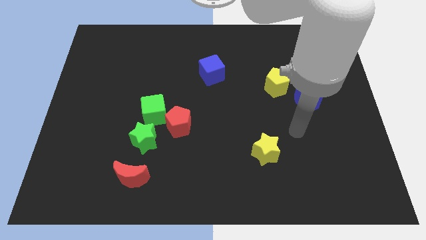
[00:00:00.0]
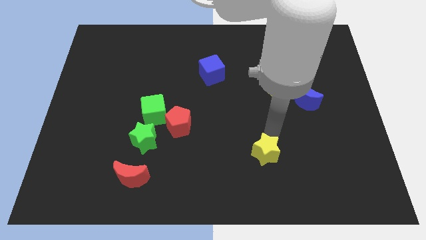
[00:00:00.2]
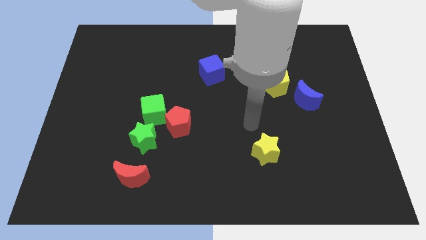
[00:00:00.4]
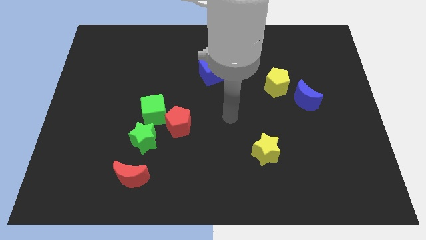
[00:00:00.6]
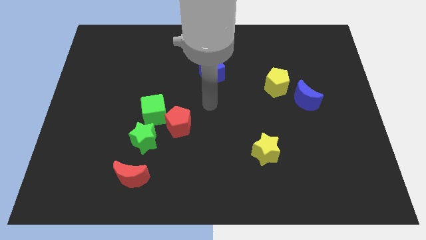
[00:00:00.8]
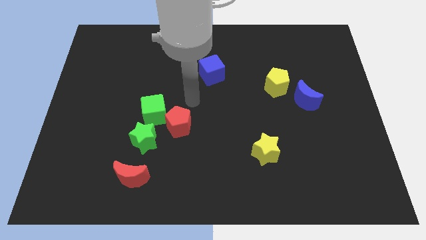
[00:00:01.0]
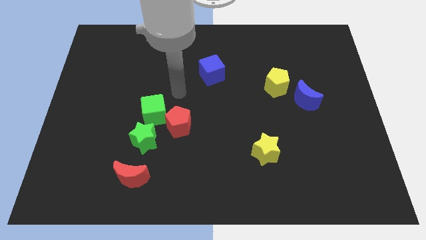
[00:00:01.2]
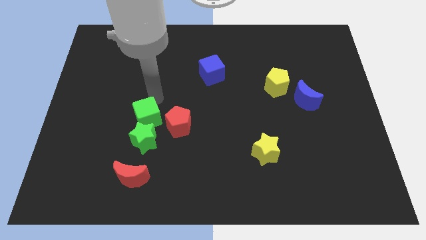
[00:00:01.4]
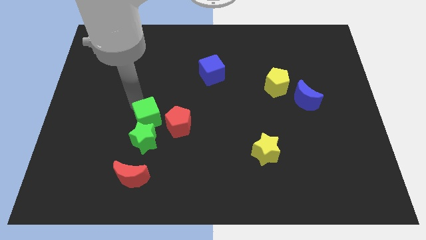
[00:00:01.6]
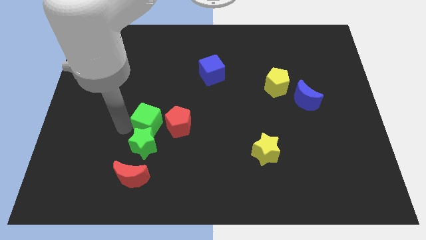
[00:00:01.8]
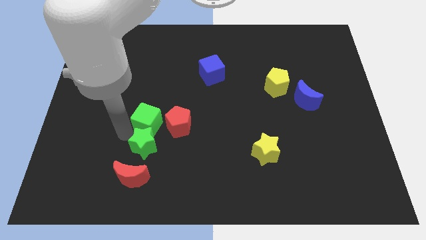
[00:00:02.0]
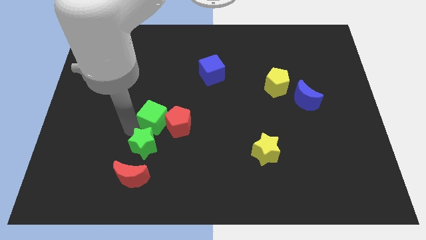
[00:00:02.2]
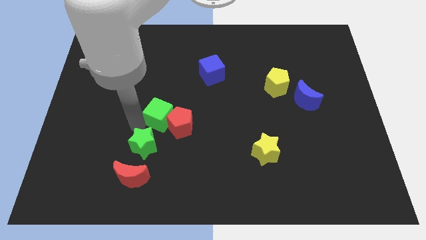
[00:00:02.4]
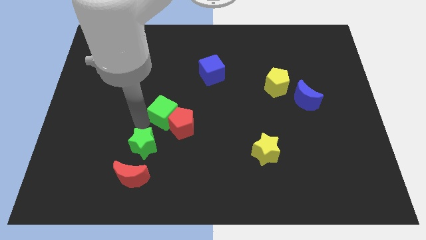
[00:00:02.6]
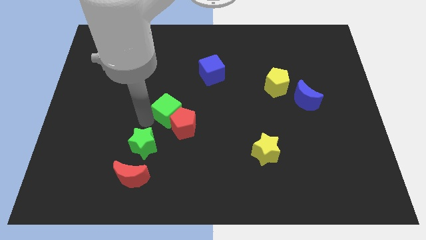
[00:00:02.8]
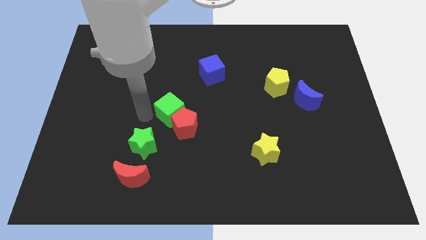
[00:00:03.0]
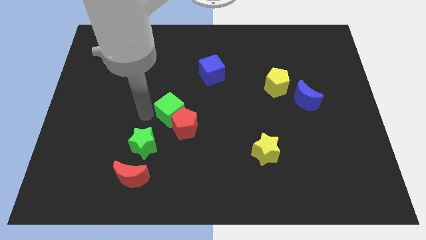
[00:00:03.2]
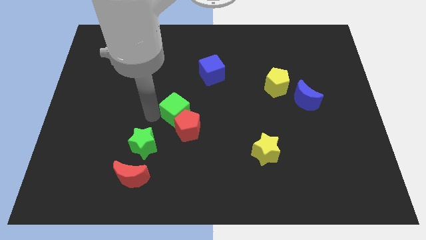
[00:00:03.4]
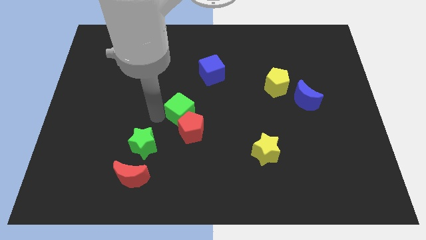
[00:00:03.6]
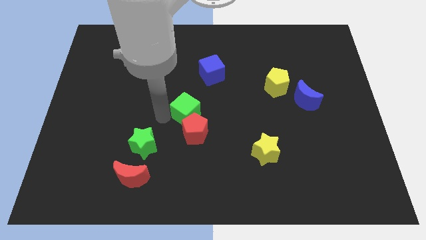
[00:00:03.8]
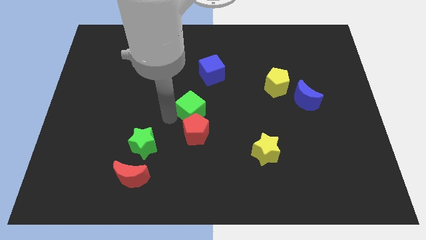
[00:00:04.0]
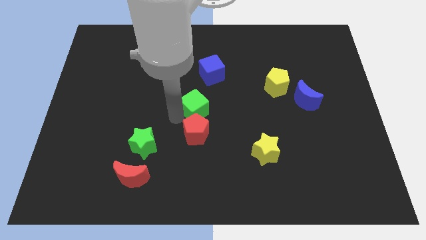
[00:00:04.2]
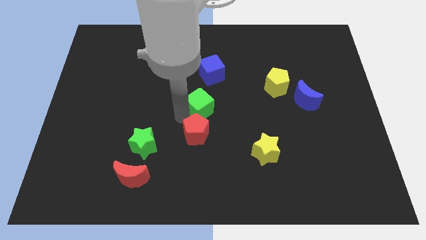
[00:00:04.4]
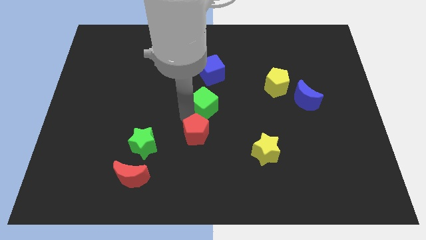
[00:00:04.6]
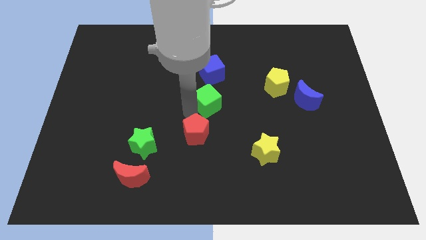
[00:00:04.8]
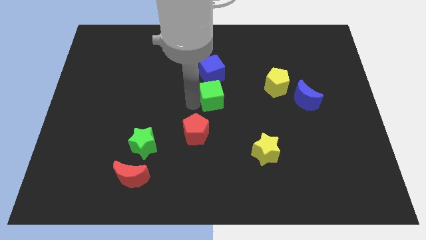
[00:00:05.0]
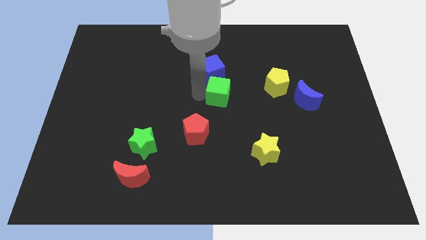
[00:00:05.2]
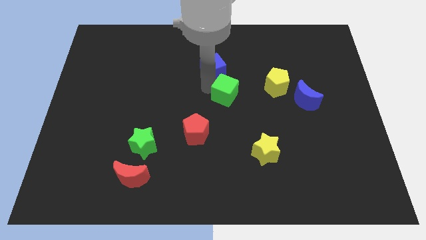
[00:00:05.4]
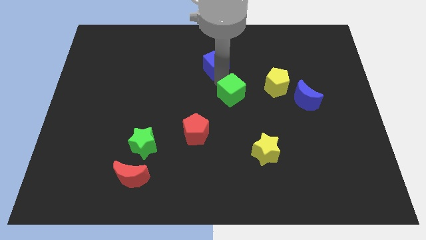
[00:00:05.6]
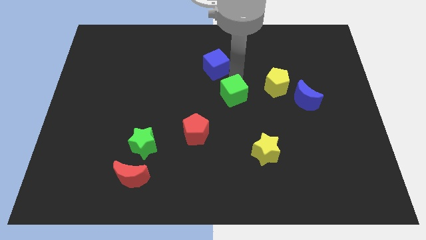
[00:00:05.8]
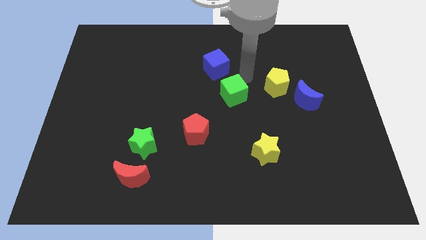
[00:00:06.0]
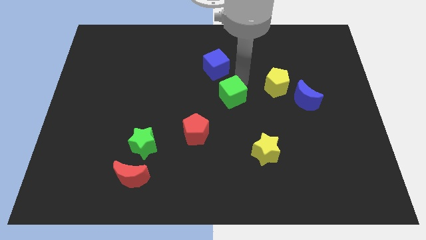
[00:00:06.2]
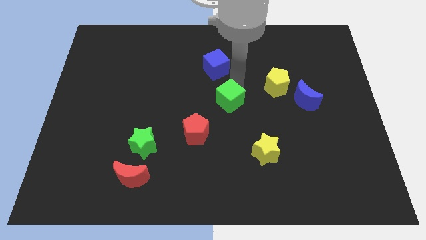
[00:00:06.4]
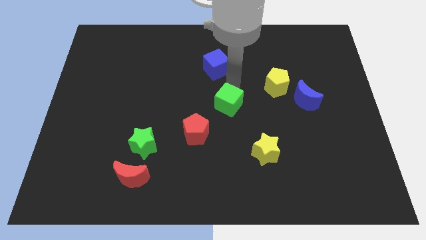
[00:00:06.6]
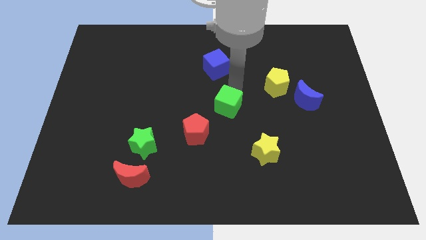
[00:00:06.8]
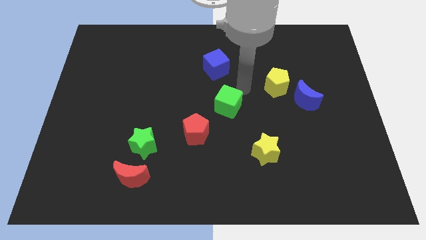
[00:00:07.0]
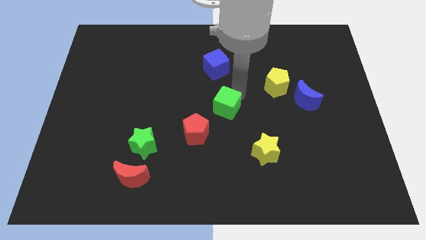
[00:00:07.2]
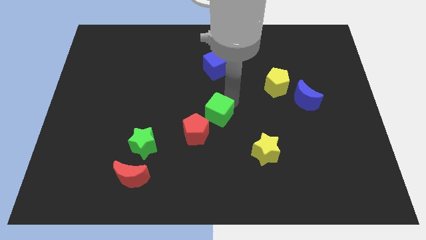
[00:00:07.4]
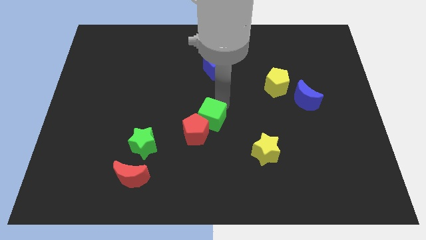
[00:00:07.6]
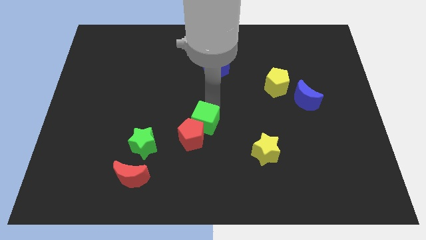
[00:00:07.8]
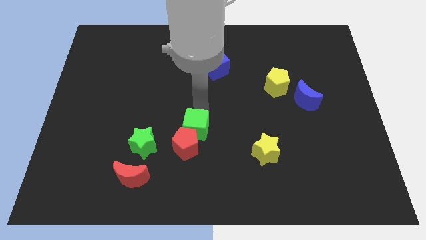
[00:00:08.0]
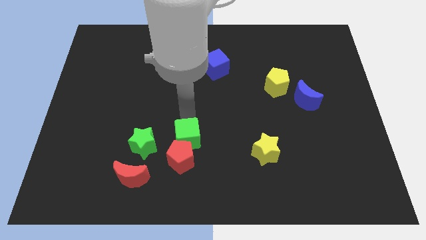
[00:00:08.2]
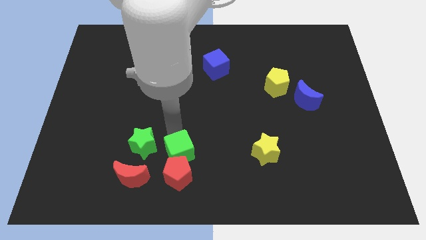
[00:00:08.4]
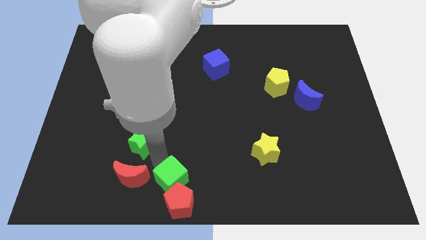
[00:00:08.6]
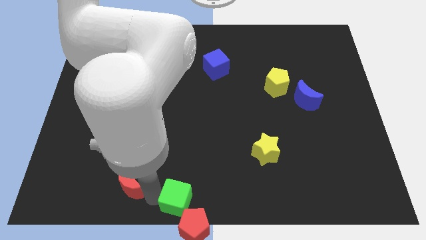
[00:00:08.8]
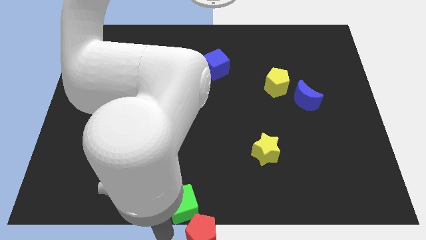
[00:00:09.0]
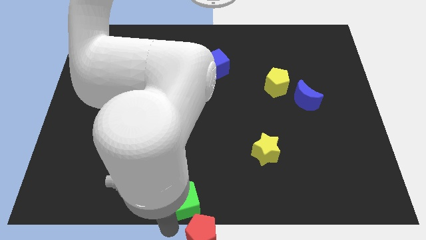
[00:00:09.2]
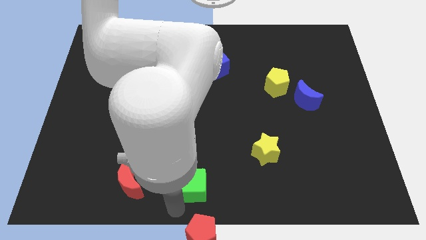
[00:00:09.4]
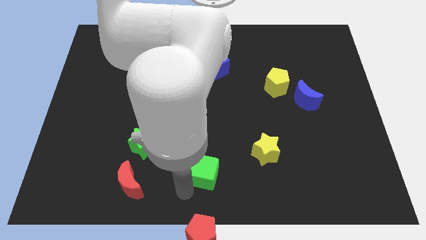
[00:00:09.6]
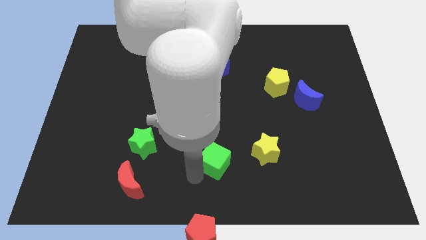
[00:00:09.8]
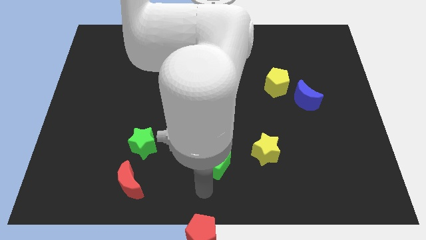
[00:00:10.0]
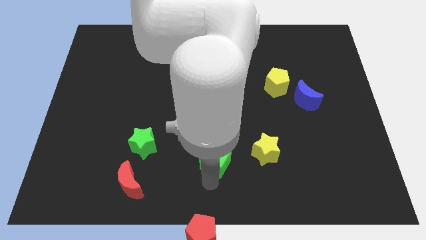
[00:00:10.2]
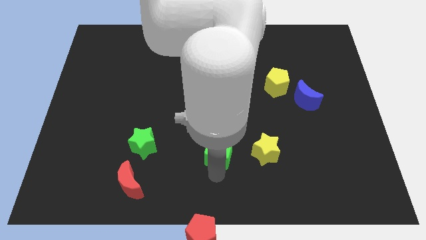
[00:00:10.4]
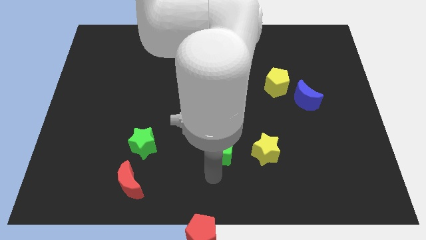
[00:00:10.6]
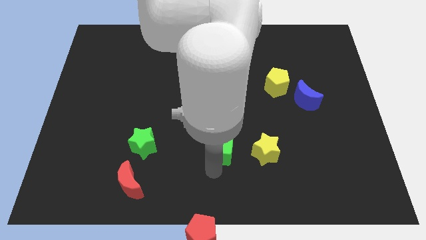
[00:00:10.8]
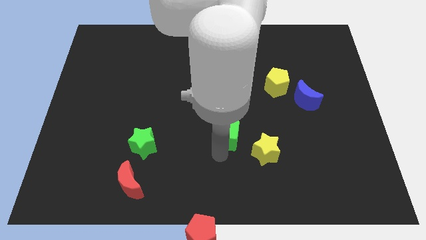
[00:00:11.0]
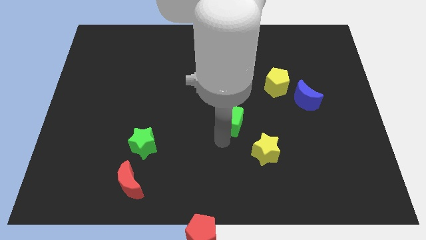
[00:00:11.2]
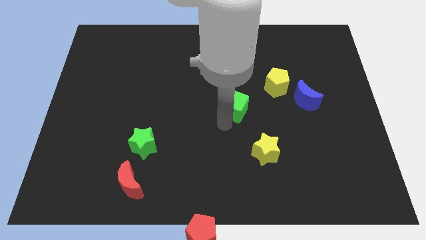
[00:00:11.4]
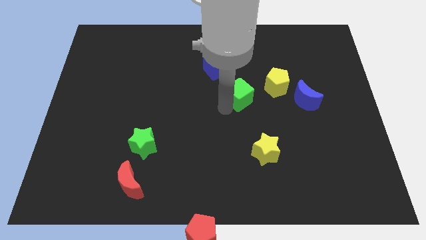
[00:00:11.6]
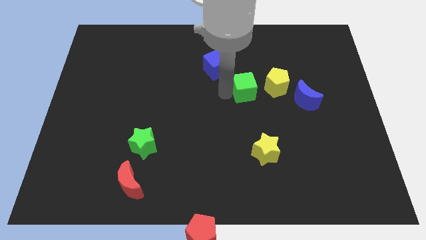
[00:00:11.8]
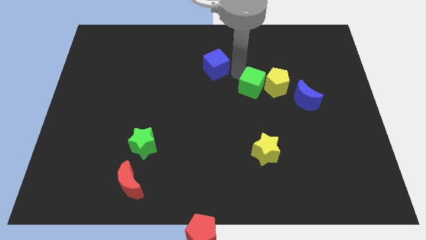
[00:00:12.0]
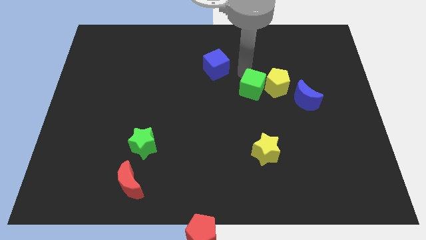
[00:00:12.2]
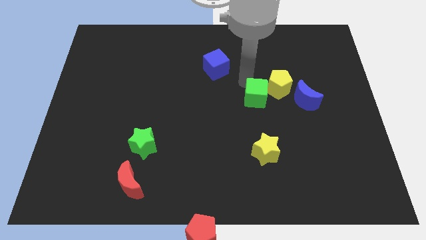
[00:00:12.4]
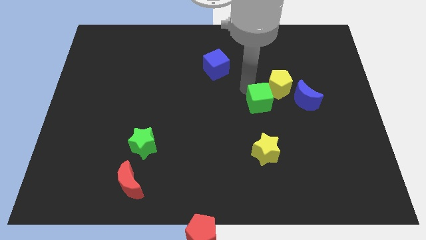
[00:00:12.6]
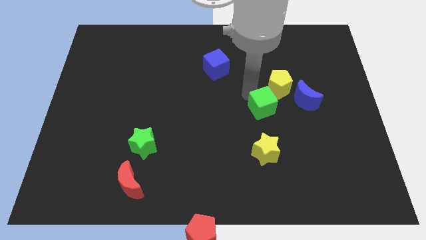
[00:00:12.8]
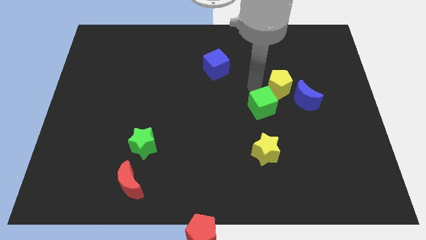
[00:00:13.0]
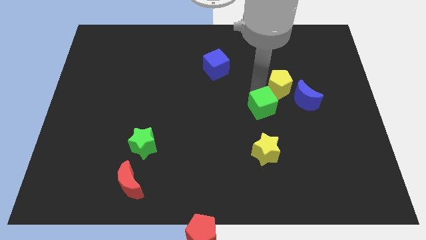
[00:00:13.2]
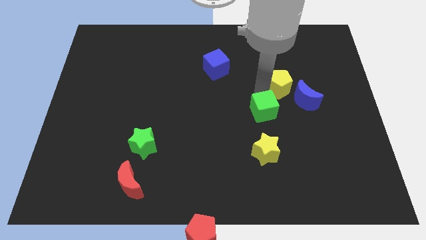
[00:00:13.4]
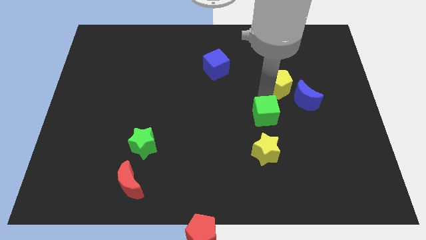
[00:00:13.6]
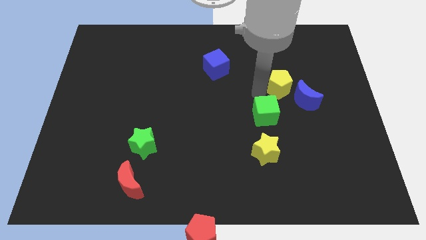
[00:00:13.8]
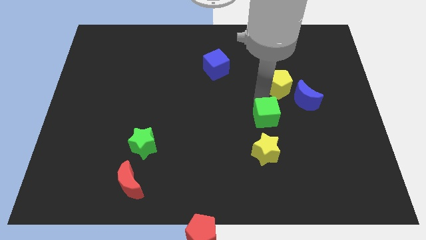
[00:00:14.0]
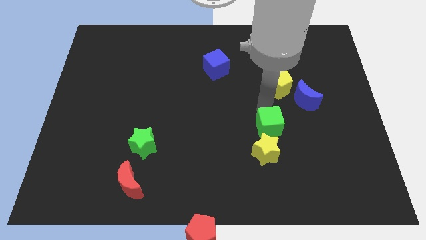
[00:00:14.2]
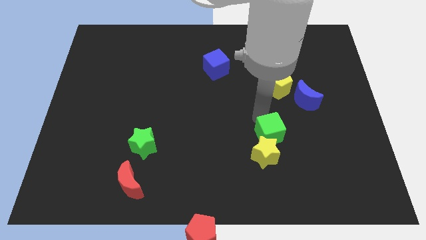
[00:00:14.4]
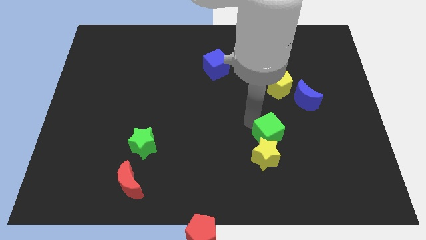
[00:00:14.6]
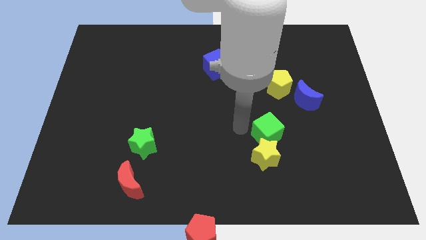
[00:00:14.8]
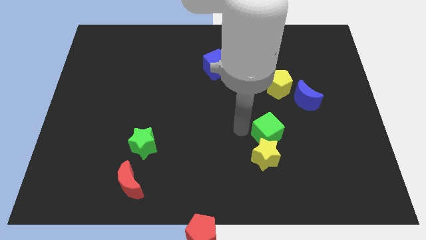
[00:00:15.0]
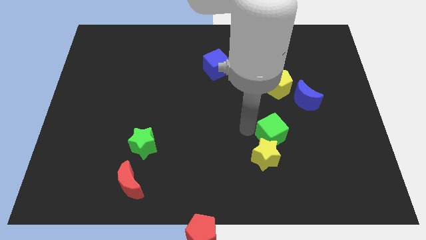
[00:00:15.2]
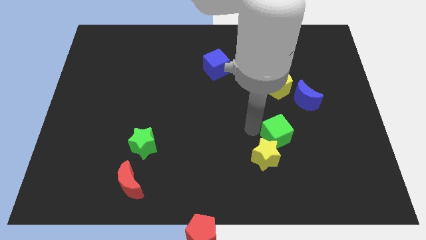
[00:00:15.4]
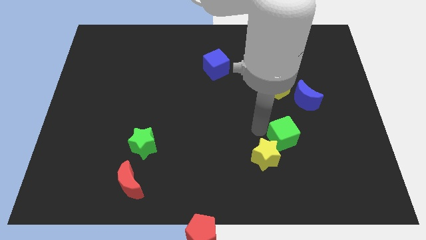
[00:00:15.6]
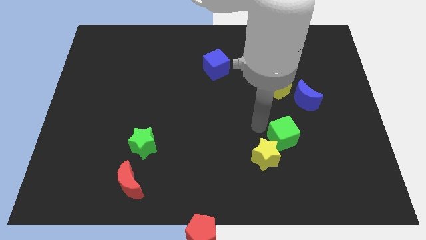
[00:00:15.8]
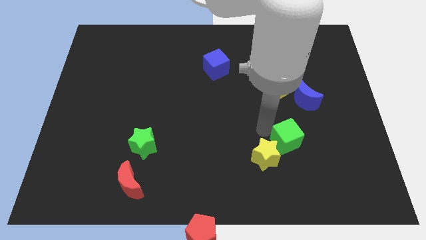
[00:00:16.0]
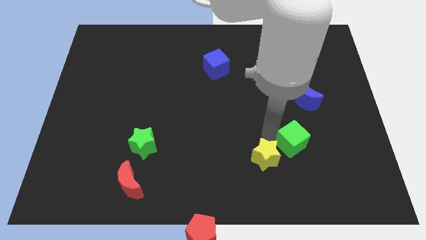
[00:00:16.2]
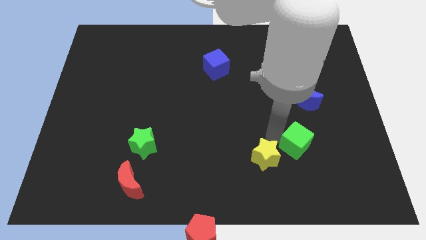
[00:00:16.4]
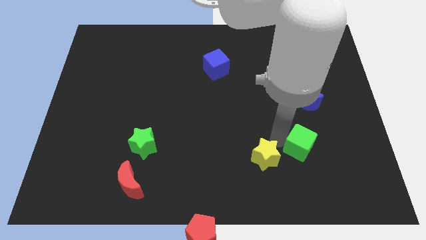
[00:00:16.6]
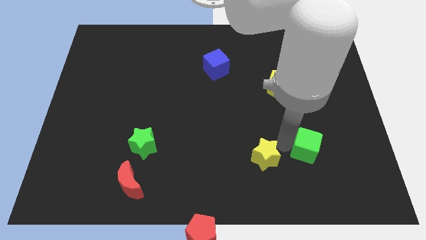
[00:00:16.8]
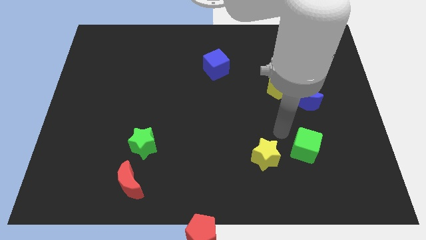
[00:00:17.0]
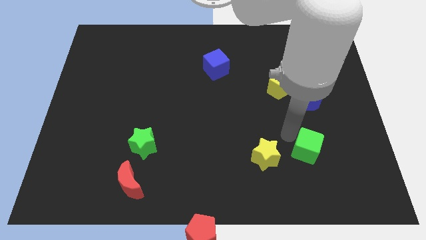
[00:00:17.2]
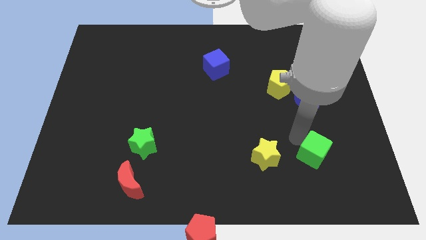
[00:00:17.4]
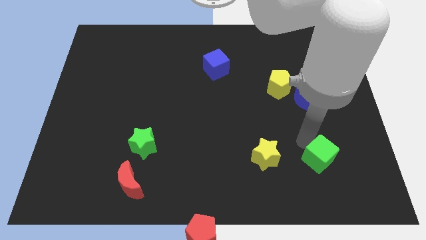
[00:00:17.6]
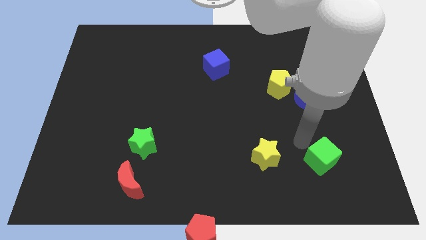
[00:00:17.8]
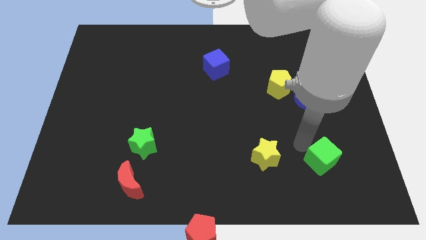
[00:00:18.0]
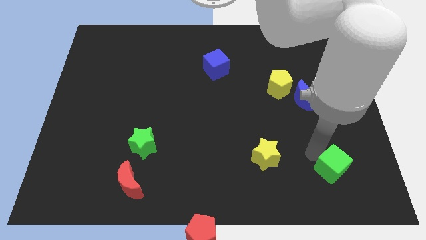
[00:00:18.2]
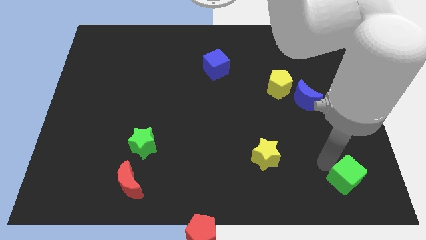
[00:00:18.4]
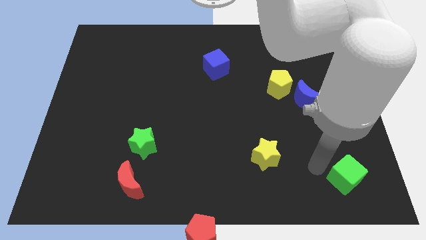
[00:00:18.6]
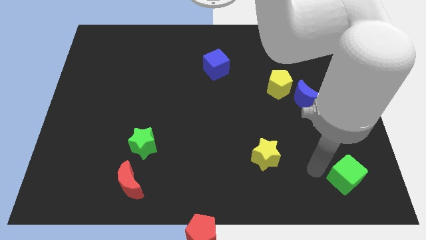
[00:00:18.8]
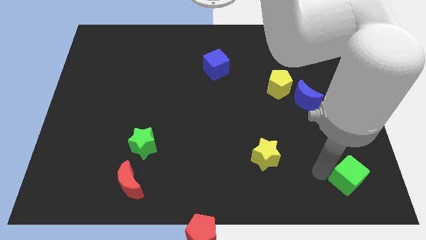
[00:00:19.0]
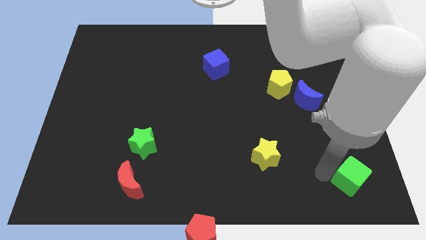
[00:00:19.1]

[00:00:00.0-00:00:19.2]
move the green cube to the lower right corner
